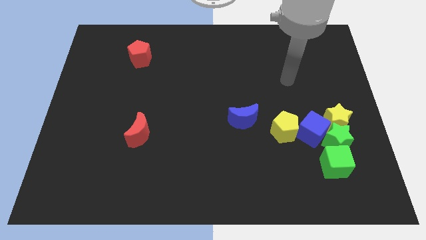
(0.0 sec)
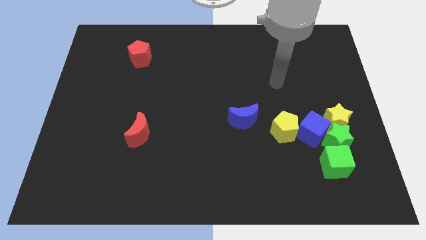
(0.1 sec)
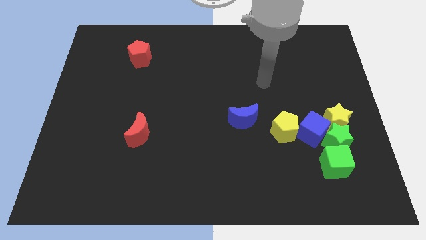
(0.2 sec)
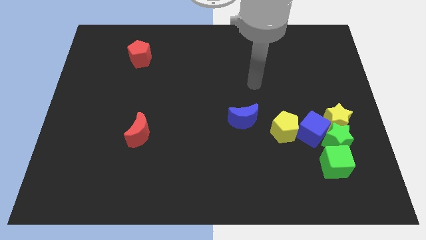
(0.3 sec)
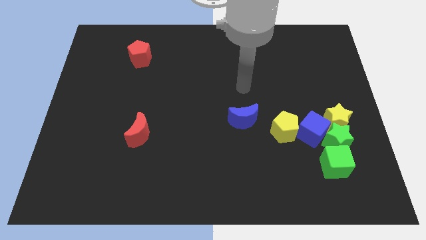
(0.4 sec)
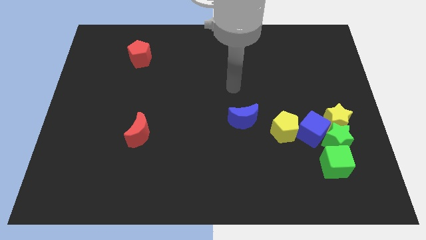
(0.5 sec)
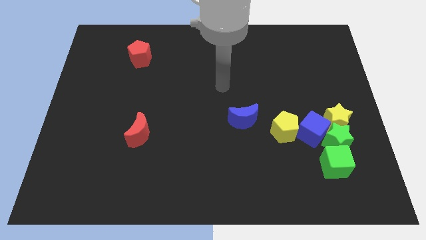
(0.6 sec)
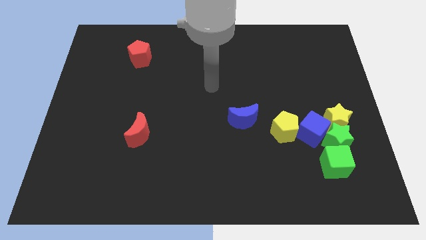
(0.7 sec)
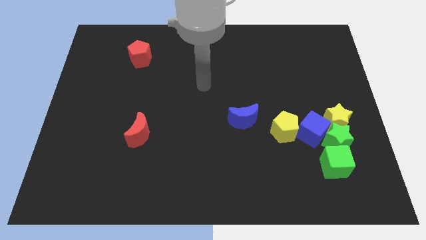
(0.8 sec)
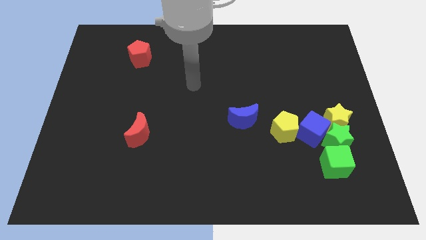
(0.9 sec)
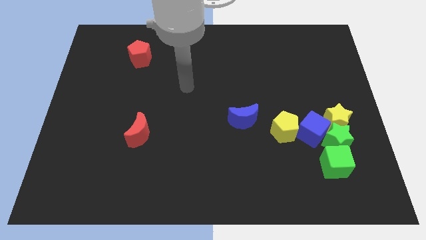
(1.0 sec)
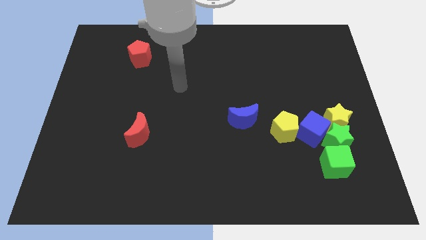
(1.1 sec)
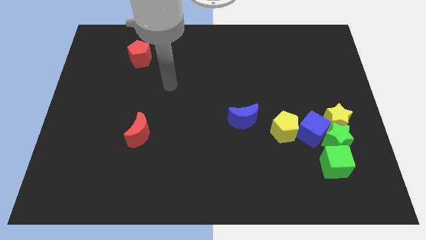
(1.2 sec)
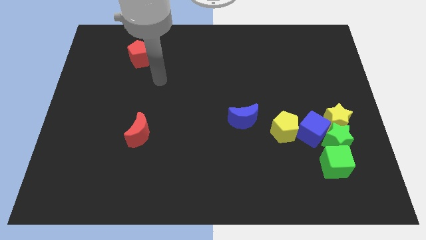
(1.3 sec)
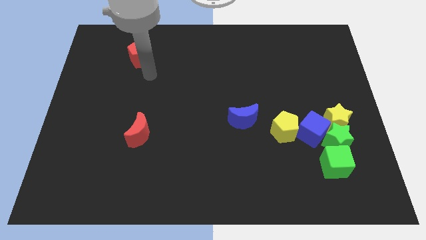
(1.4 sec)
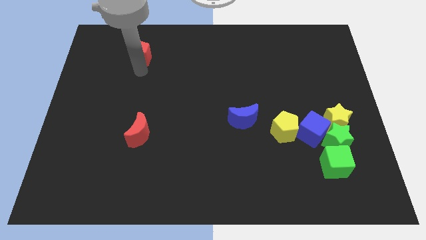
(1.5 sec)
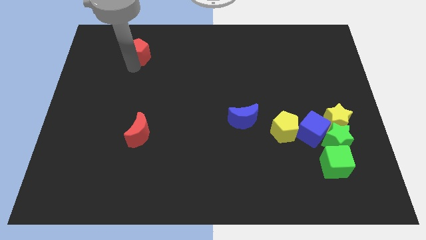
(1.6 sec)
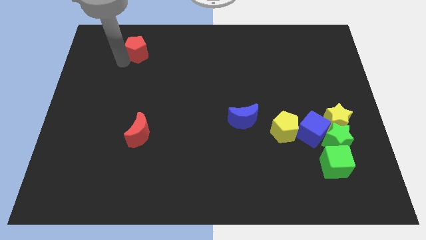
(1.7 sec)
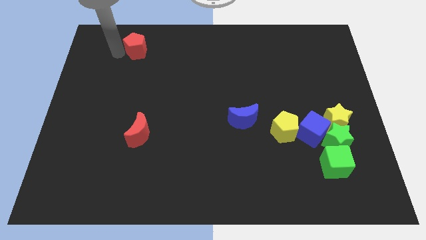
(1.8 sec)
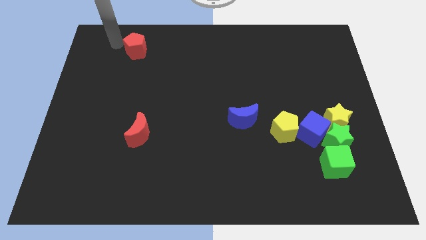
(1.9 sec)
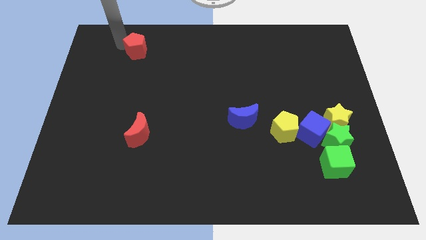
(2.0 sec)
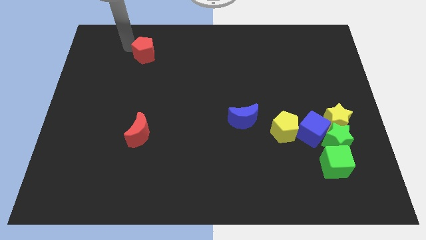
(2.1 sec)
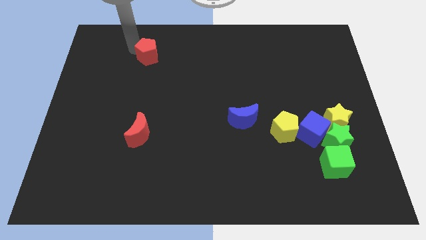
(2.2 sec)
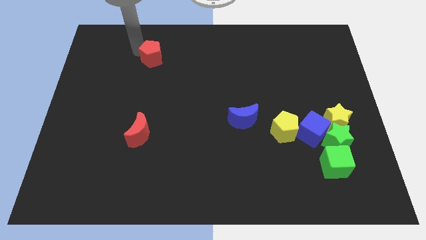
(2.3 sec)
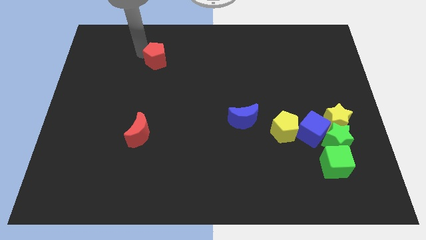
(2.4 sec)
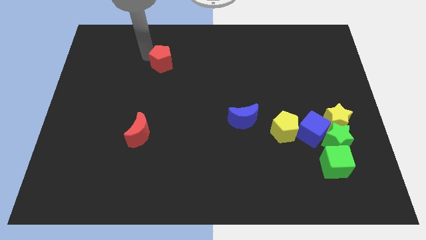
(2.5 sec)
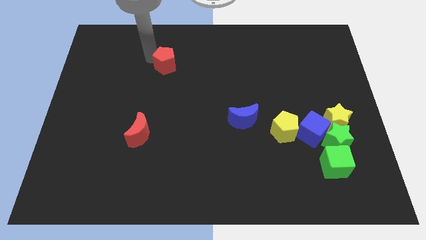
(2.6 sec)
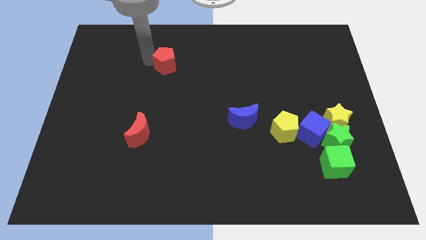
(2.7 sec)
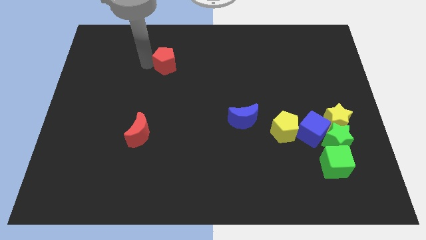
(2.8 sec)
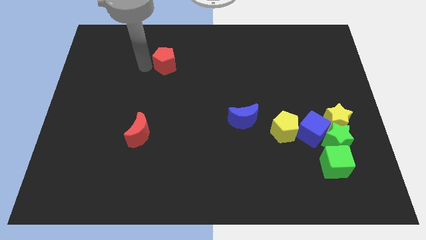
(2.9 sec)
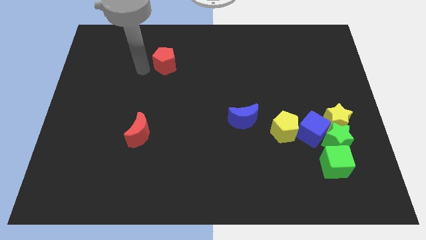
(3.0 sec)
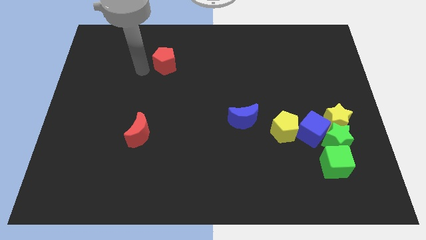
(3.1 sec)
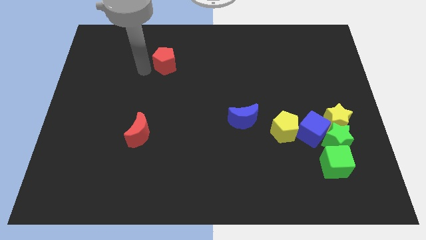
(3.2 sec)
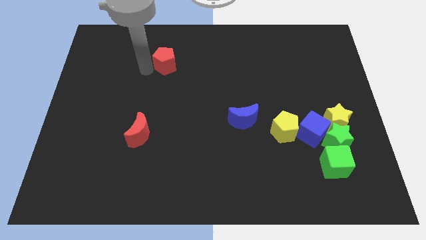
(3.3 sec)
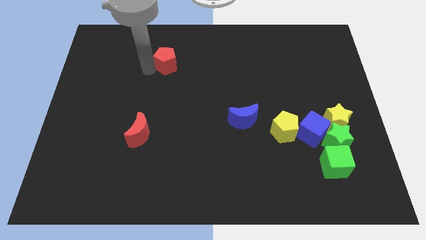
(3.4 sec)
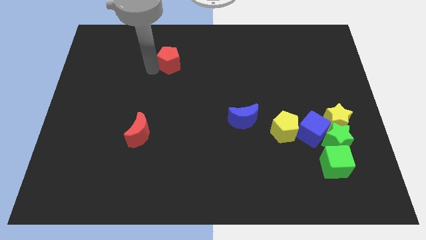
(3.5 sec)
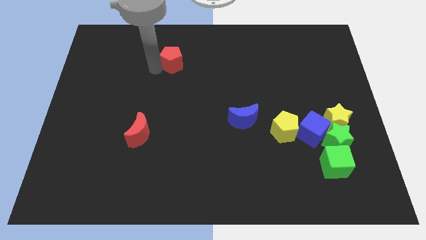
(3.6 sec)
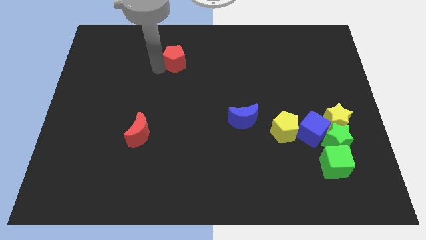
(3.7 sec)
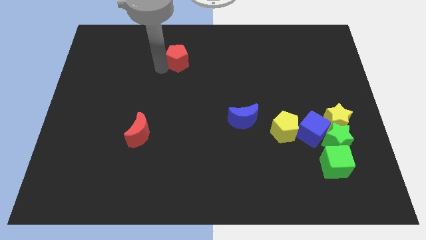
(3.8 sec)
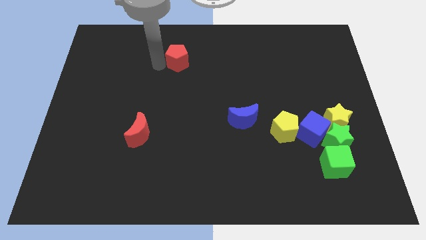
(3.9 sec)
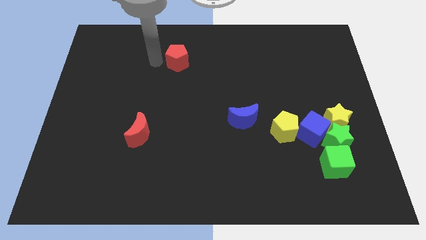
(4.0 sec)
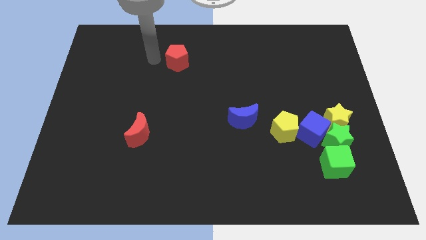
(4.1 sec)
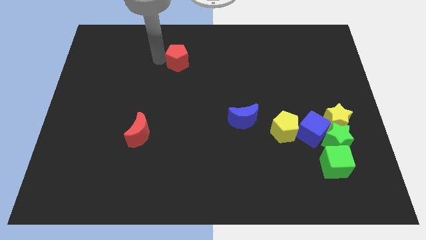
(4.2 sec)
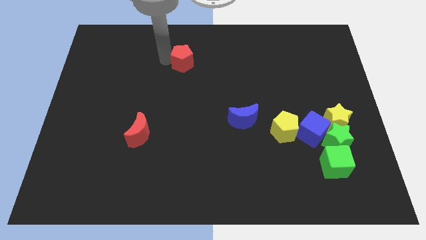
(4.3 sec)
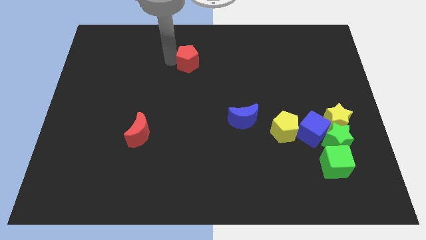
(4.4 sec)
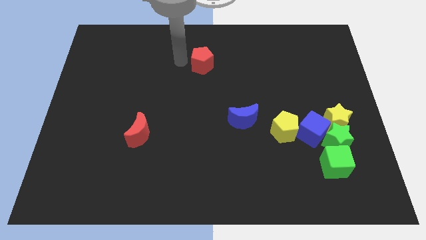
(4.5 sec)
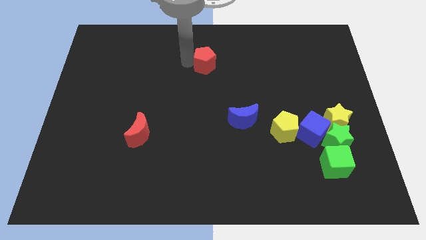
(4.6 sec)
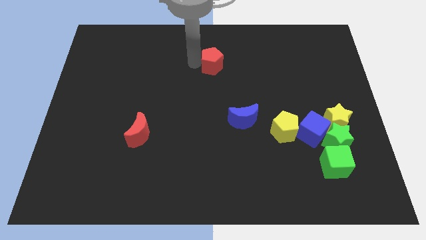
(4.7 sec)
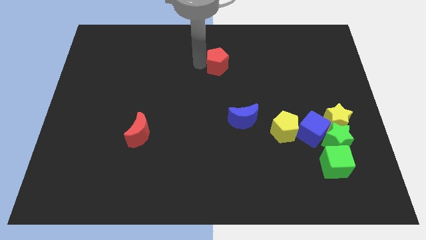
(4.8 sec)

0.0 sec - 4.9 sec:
slide the red pentagon right

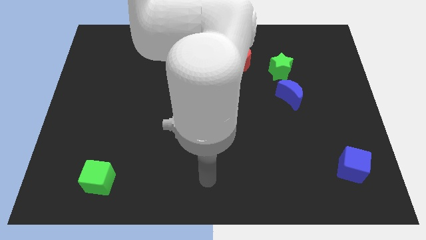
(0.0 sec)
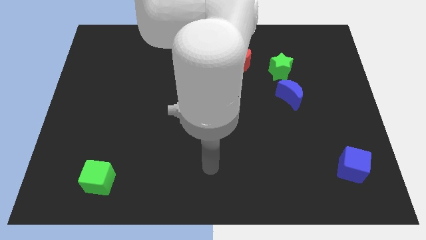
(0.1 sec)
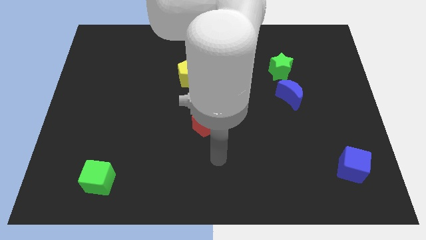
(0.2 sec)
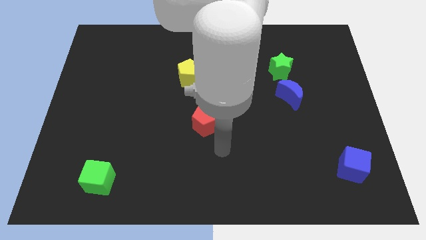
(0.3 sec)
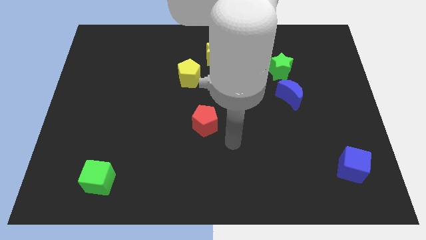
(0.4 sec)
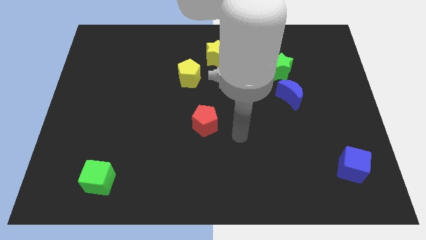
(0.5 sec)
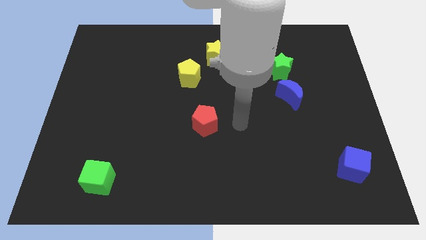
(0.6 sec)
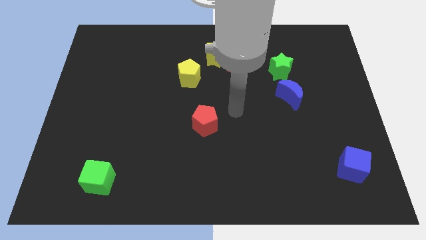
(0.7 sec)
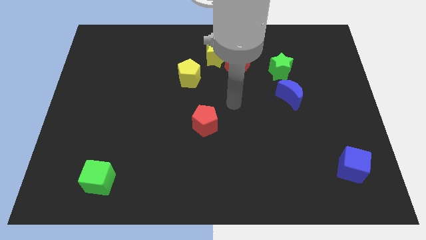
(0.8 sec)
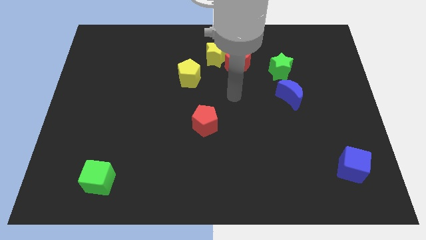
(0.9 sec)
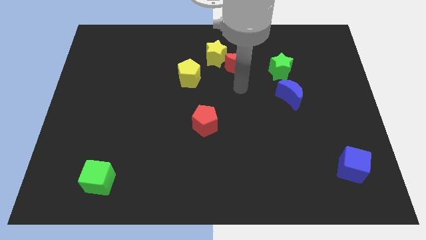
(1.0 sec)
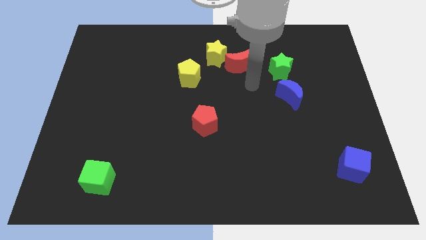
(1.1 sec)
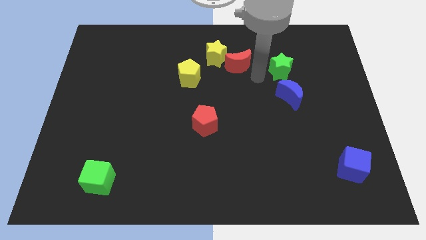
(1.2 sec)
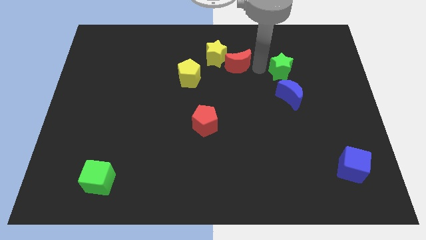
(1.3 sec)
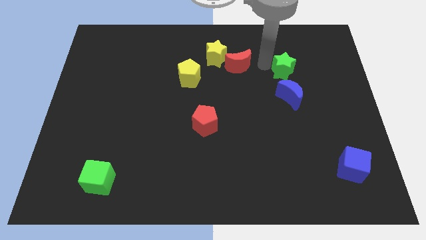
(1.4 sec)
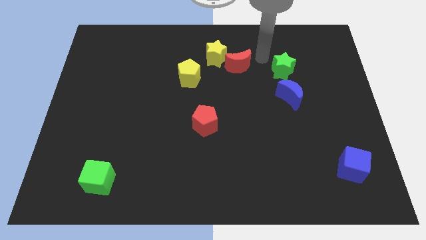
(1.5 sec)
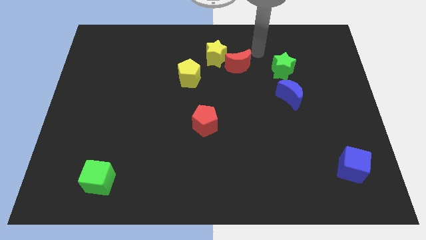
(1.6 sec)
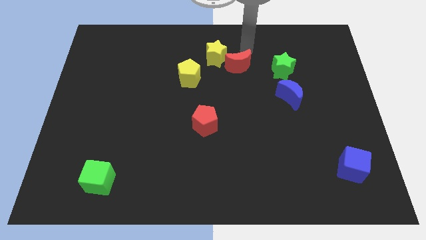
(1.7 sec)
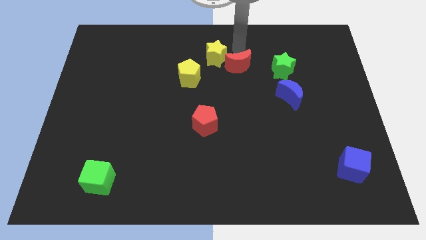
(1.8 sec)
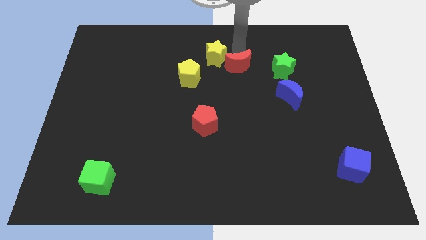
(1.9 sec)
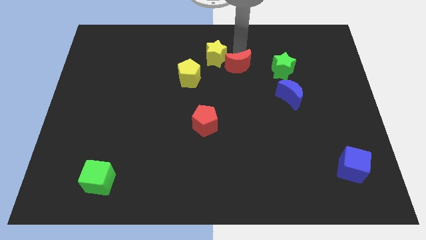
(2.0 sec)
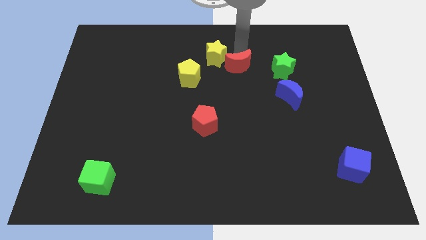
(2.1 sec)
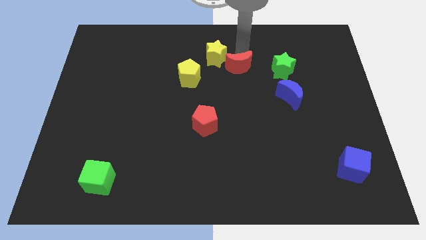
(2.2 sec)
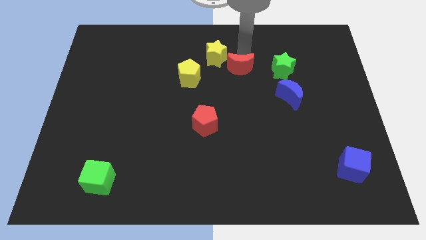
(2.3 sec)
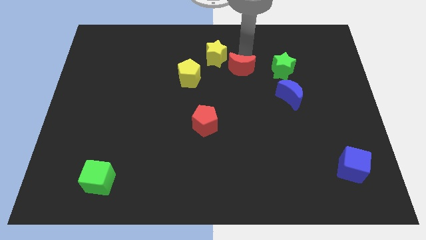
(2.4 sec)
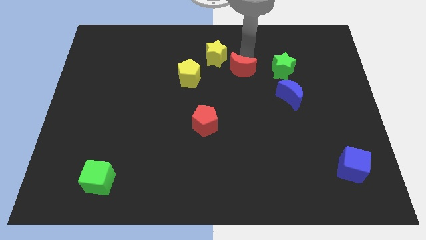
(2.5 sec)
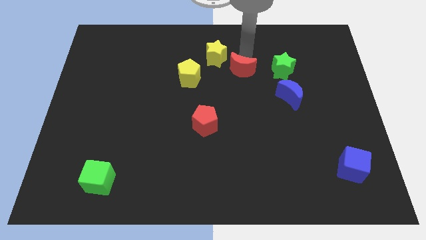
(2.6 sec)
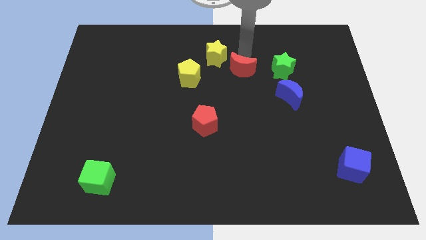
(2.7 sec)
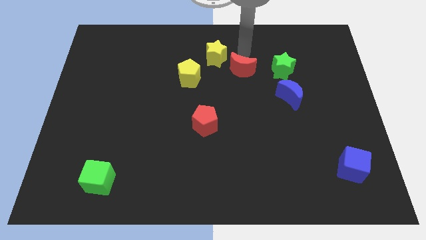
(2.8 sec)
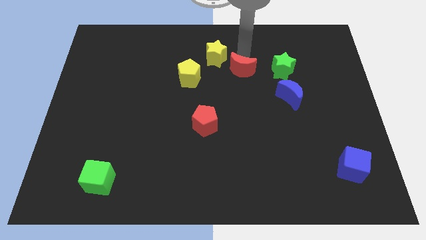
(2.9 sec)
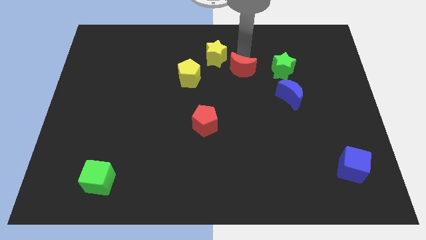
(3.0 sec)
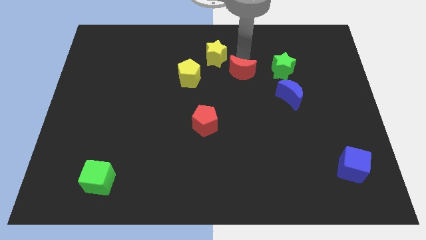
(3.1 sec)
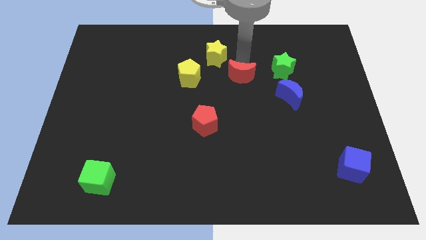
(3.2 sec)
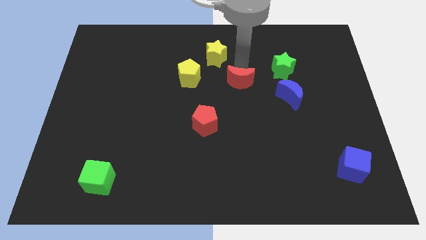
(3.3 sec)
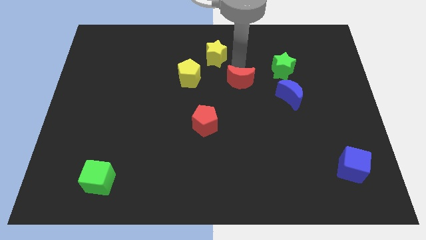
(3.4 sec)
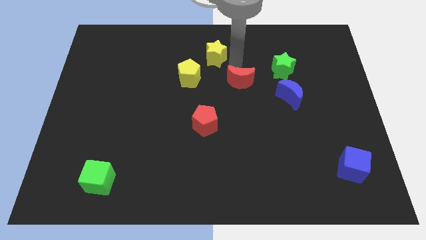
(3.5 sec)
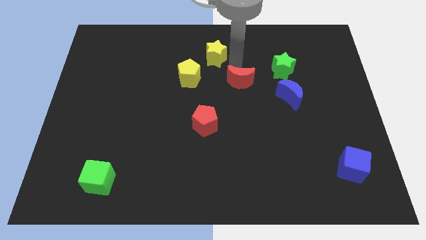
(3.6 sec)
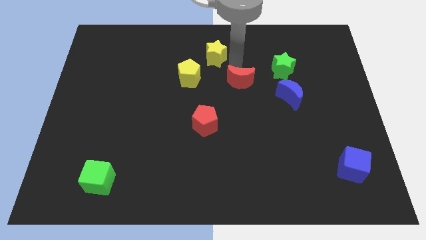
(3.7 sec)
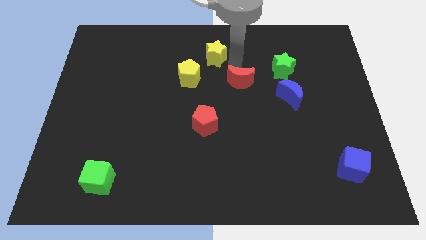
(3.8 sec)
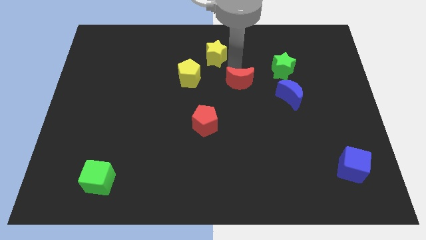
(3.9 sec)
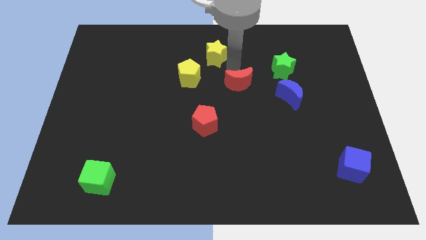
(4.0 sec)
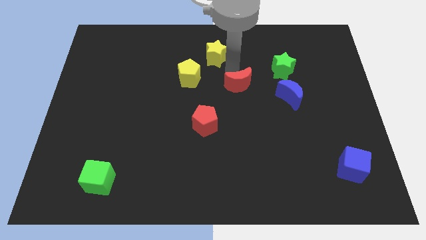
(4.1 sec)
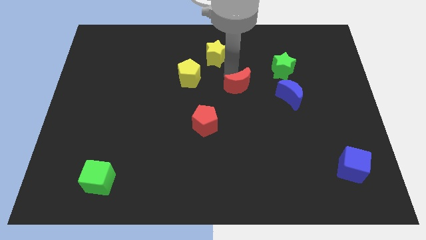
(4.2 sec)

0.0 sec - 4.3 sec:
move the red moon downwards a bit
